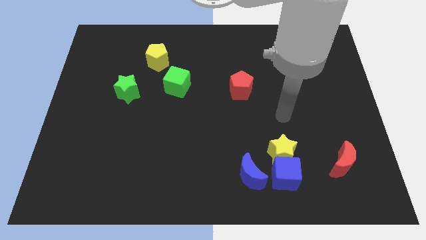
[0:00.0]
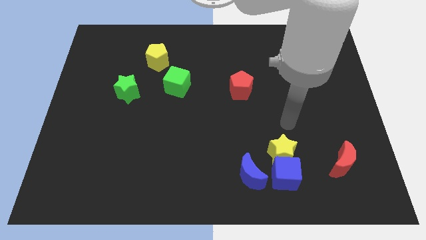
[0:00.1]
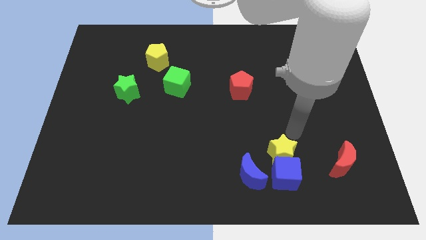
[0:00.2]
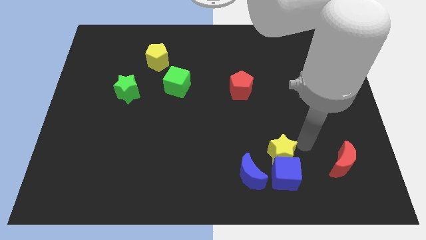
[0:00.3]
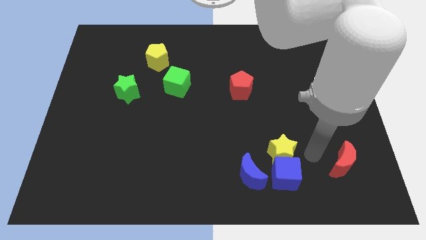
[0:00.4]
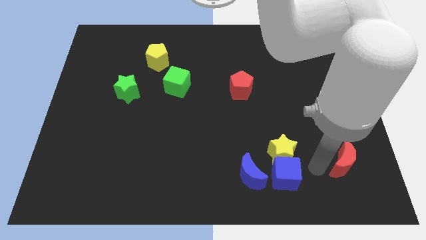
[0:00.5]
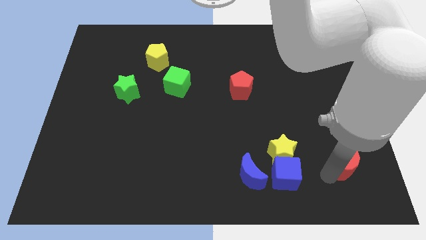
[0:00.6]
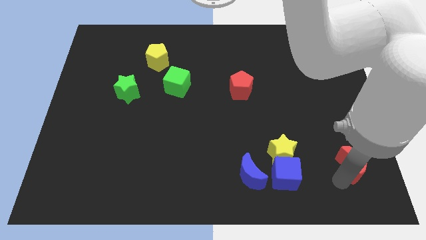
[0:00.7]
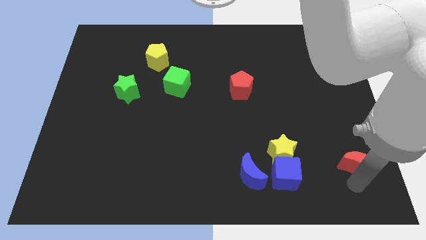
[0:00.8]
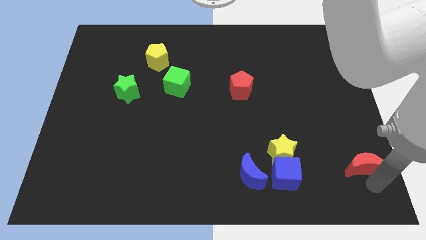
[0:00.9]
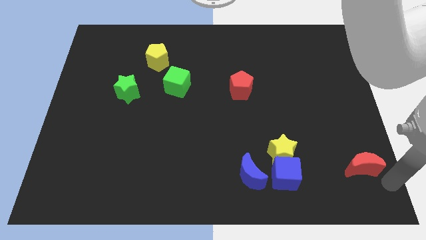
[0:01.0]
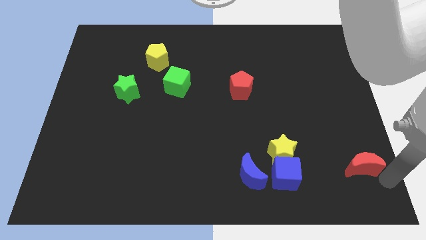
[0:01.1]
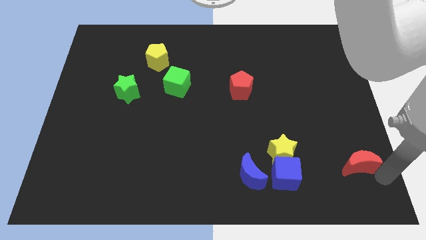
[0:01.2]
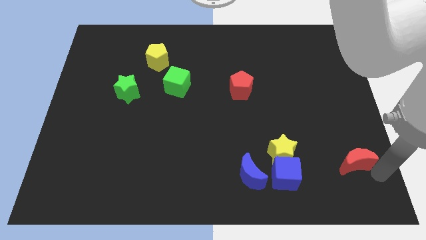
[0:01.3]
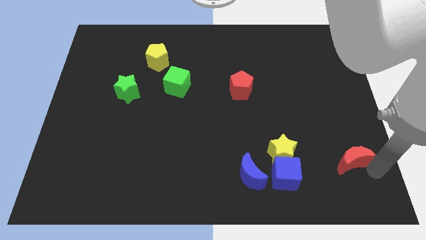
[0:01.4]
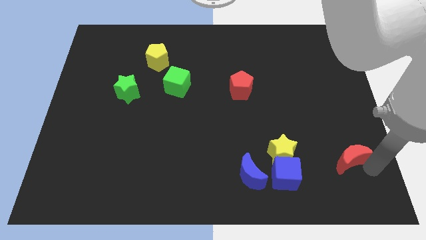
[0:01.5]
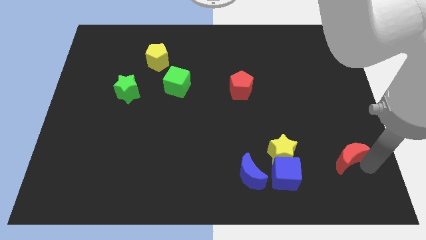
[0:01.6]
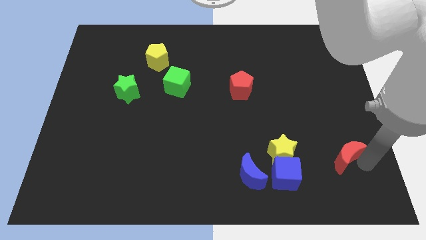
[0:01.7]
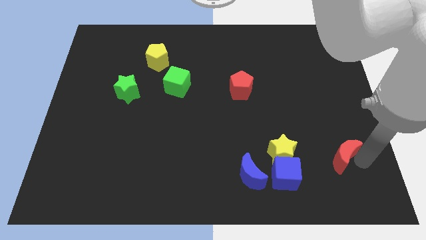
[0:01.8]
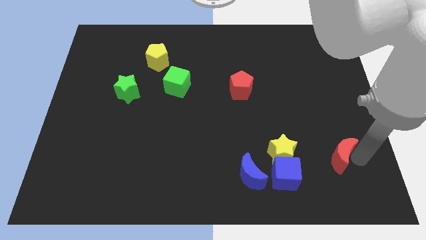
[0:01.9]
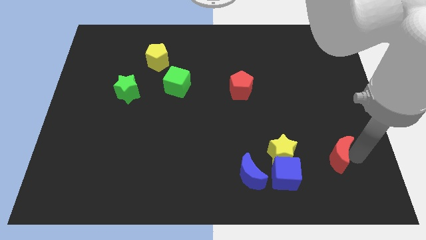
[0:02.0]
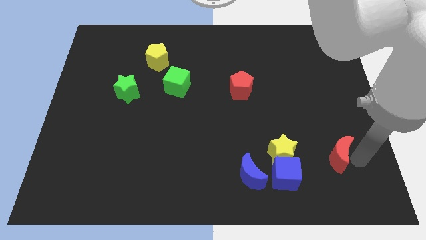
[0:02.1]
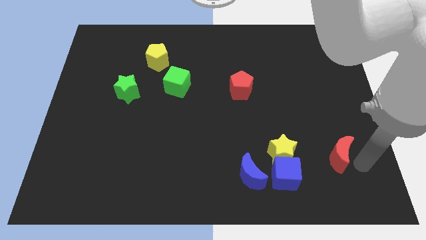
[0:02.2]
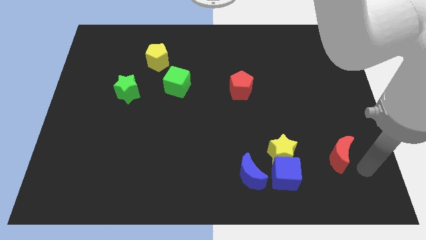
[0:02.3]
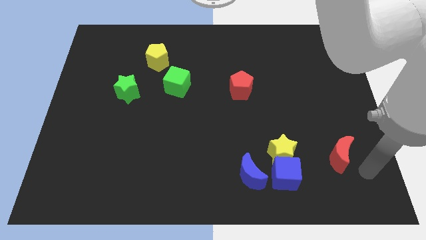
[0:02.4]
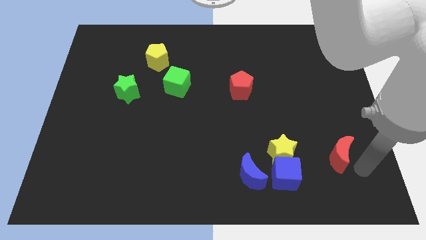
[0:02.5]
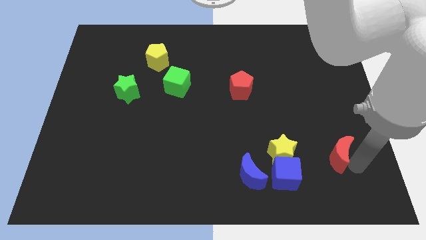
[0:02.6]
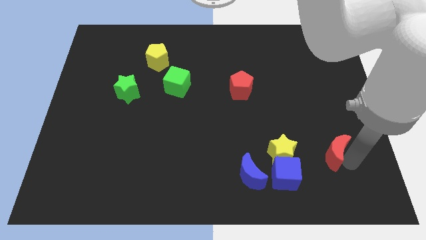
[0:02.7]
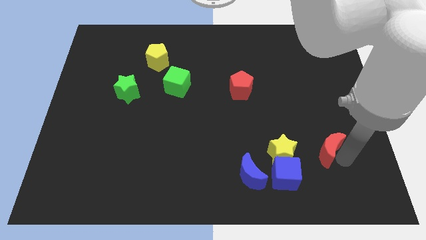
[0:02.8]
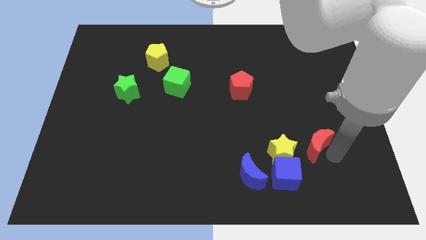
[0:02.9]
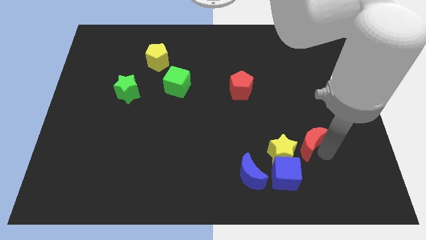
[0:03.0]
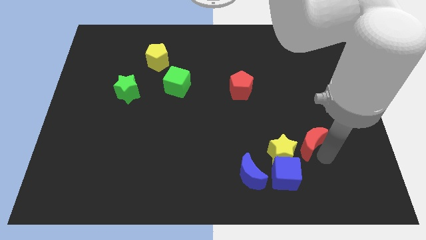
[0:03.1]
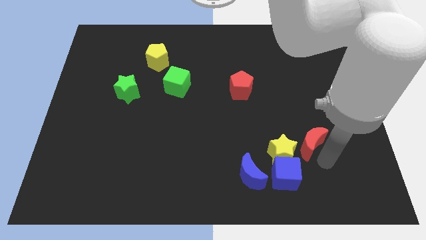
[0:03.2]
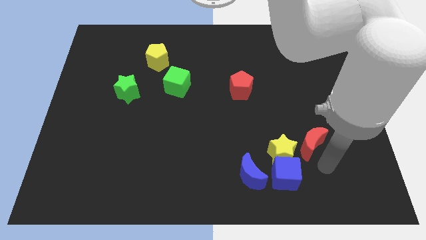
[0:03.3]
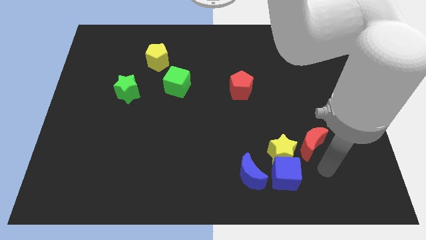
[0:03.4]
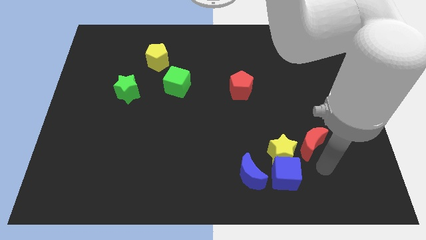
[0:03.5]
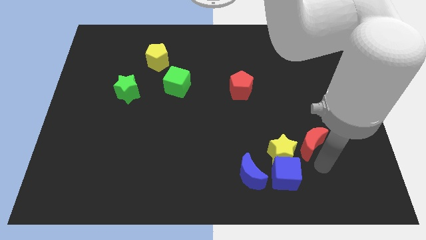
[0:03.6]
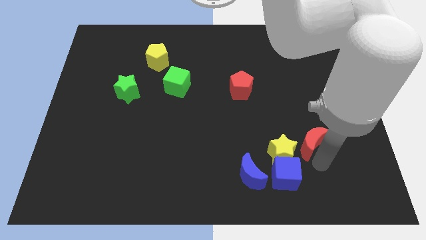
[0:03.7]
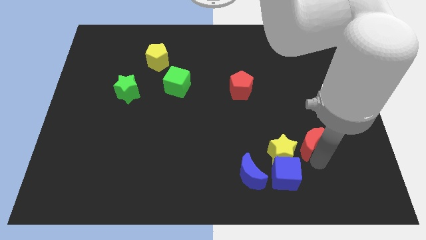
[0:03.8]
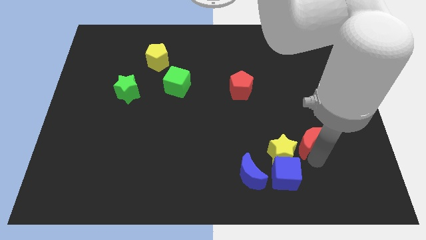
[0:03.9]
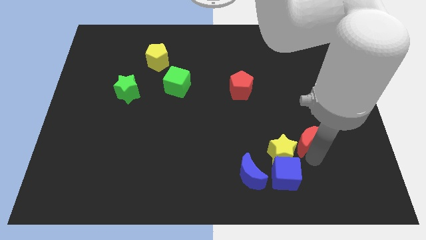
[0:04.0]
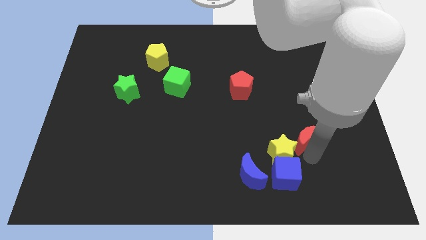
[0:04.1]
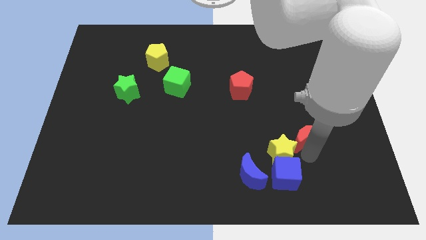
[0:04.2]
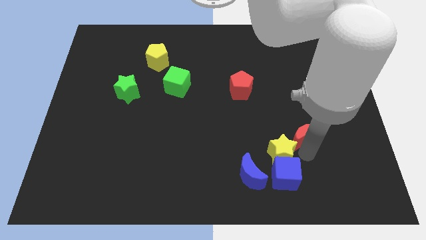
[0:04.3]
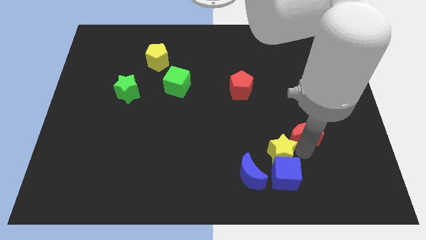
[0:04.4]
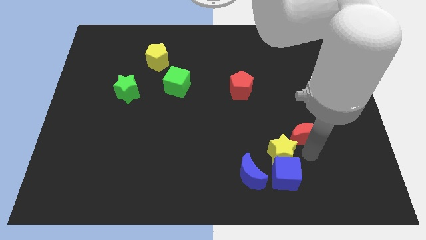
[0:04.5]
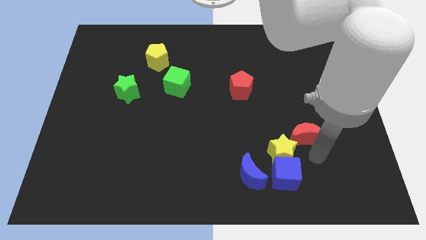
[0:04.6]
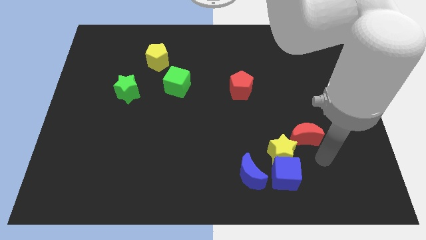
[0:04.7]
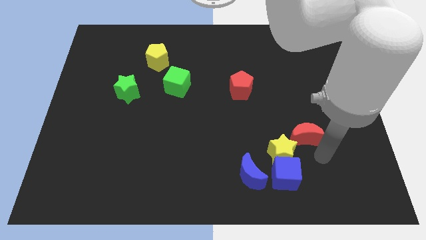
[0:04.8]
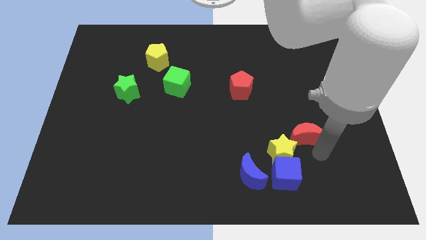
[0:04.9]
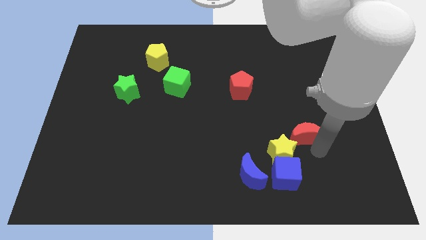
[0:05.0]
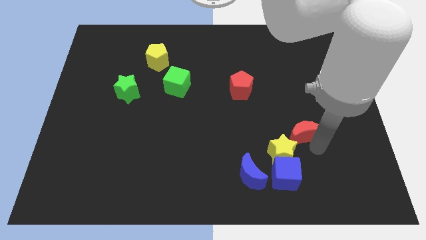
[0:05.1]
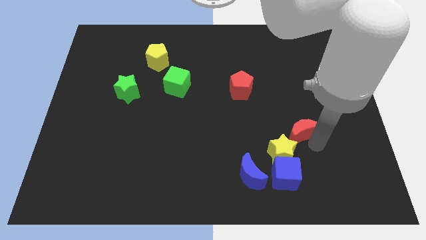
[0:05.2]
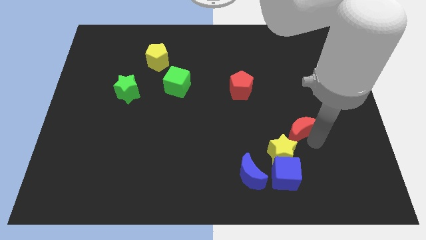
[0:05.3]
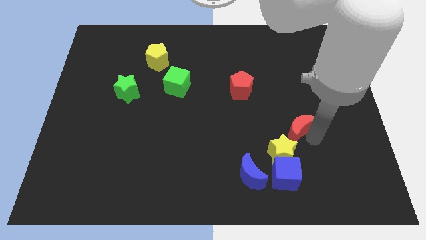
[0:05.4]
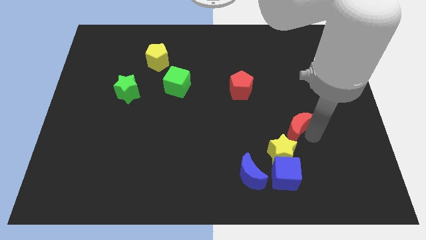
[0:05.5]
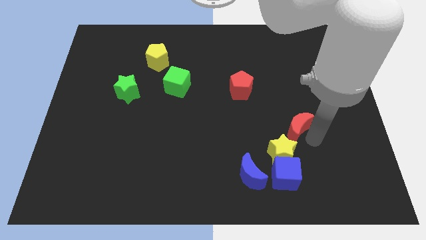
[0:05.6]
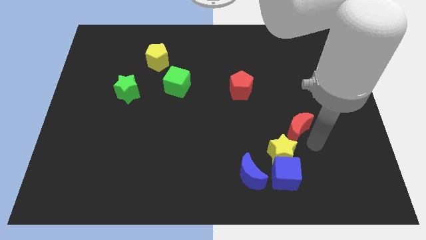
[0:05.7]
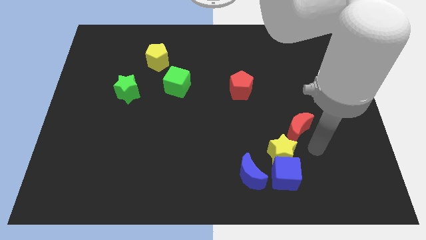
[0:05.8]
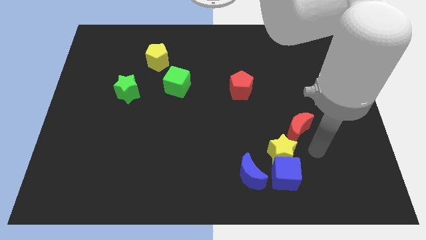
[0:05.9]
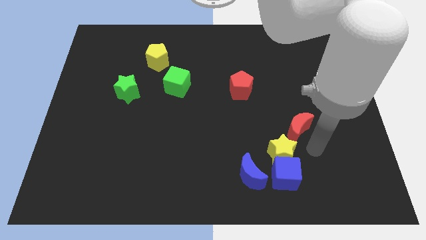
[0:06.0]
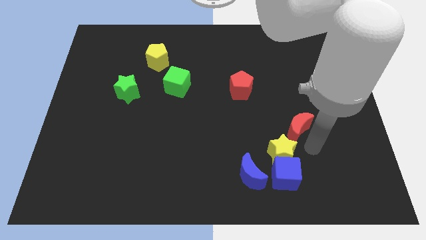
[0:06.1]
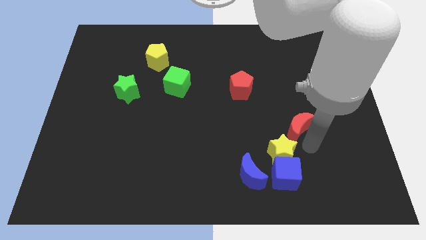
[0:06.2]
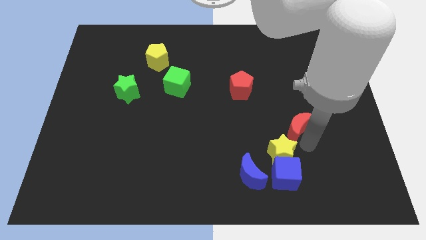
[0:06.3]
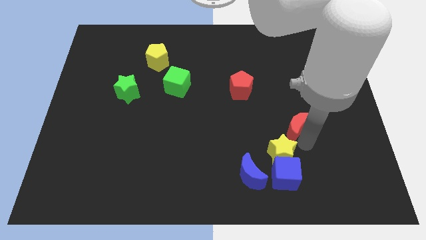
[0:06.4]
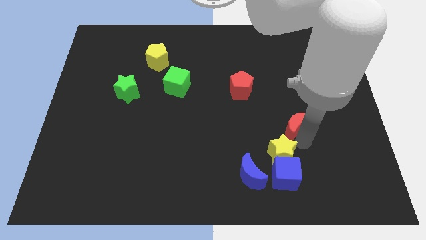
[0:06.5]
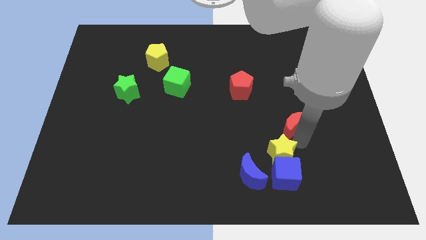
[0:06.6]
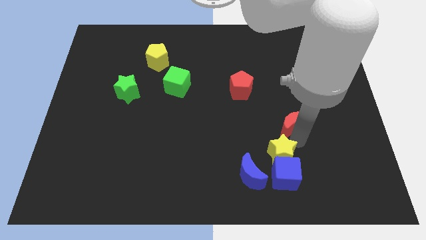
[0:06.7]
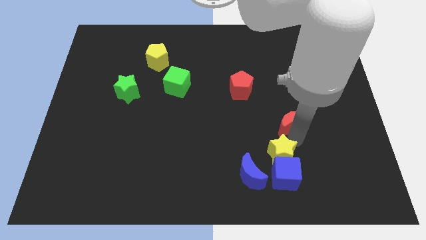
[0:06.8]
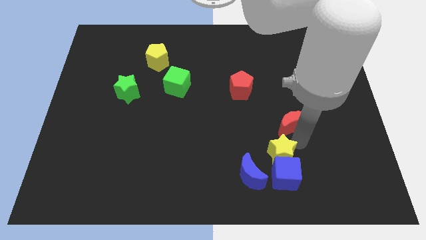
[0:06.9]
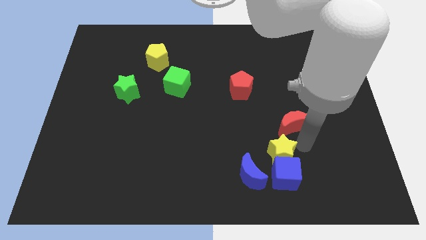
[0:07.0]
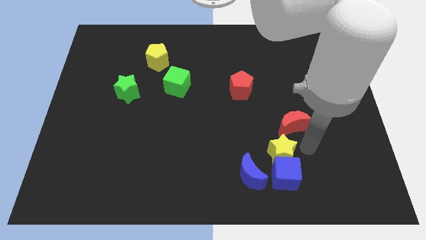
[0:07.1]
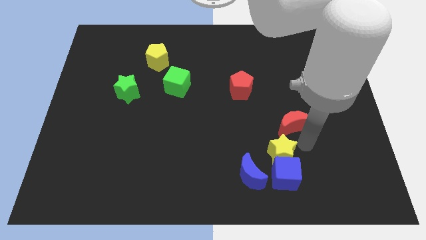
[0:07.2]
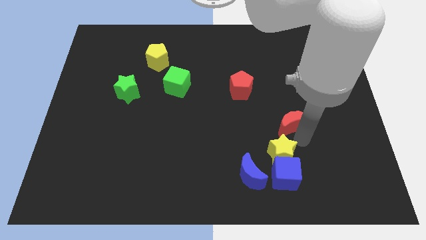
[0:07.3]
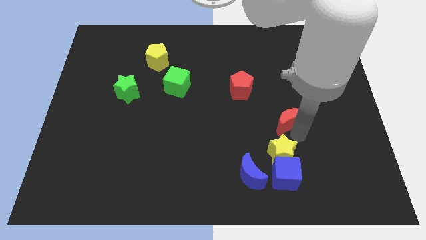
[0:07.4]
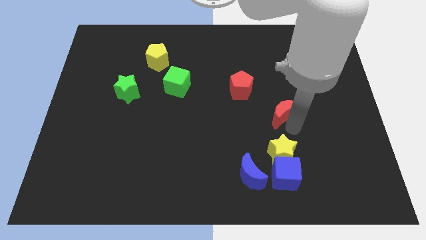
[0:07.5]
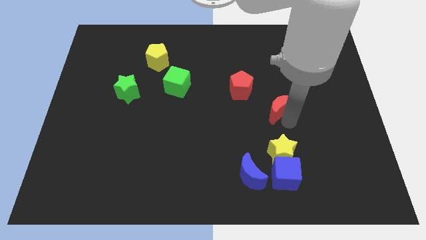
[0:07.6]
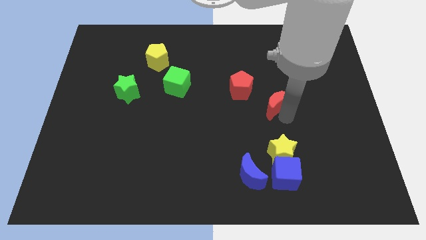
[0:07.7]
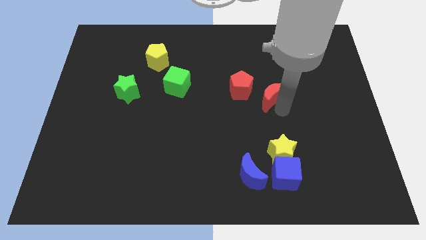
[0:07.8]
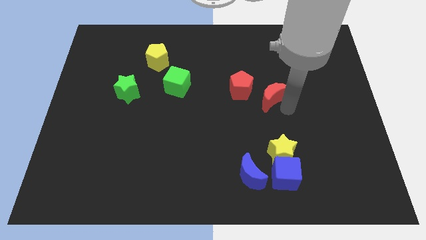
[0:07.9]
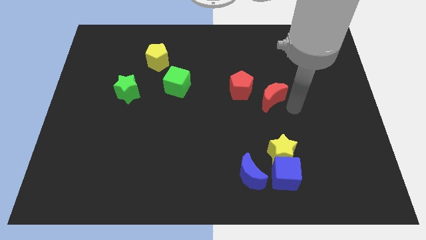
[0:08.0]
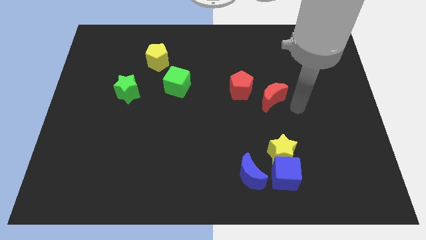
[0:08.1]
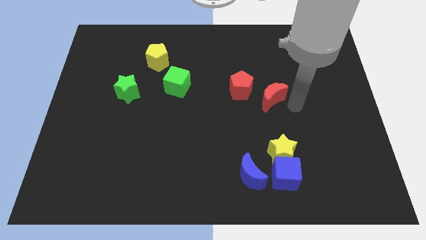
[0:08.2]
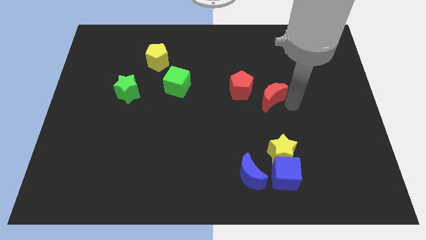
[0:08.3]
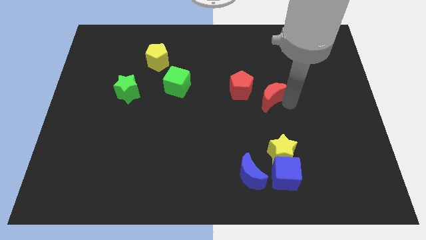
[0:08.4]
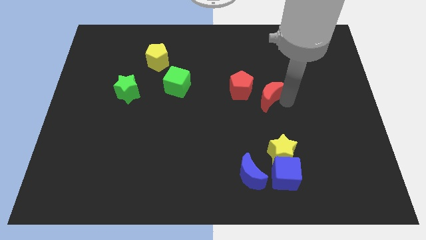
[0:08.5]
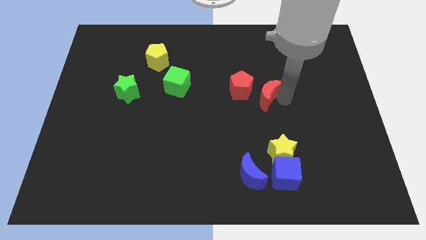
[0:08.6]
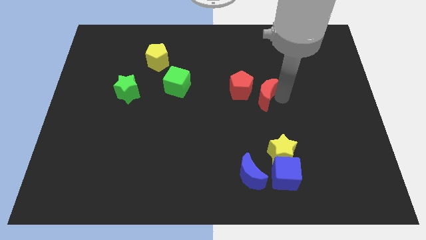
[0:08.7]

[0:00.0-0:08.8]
move the red moon close to the red pentagon
